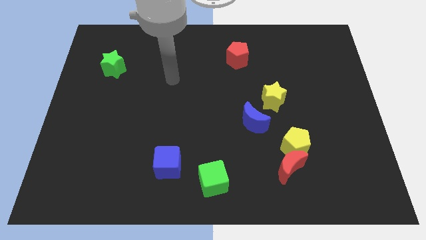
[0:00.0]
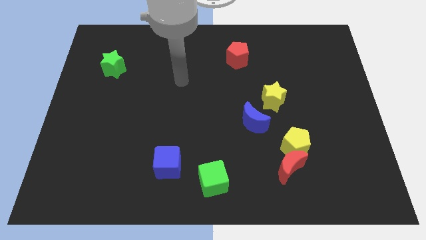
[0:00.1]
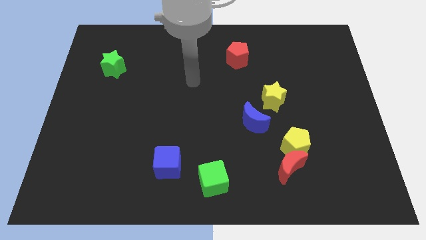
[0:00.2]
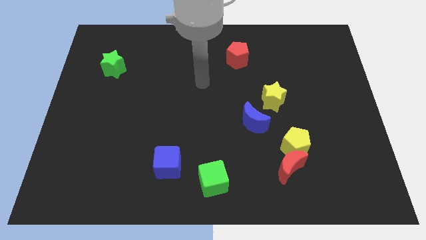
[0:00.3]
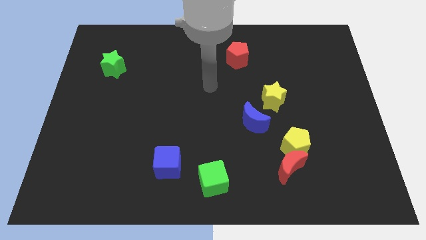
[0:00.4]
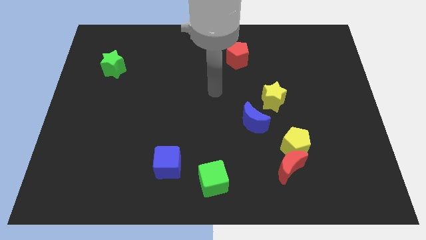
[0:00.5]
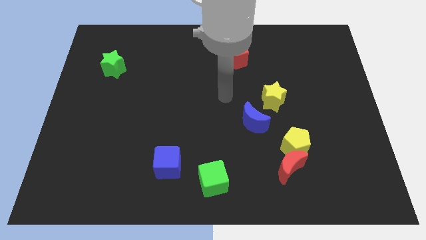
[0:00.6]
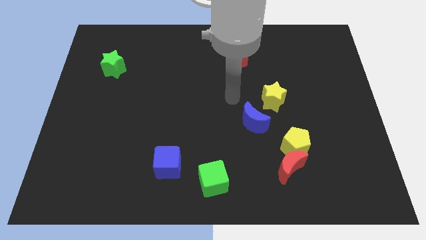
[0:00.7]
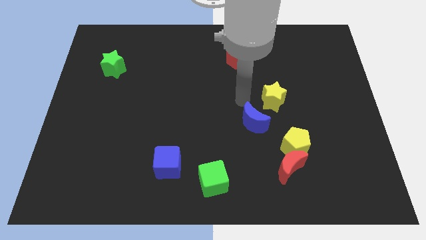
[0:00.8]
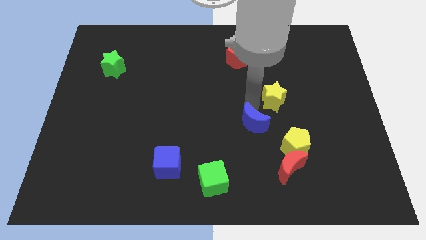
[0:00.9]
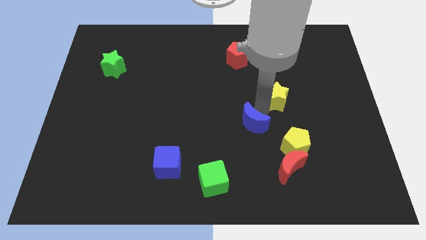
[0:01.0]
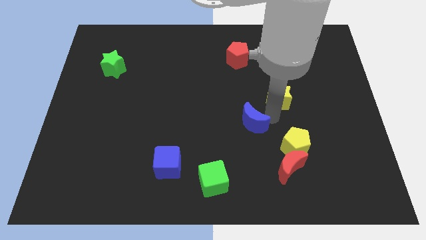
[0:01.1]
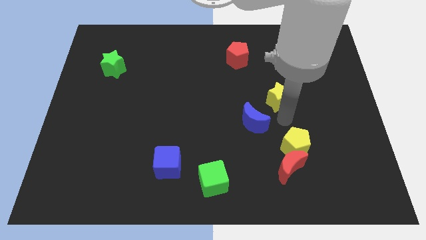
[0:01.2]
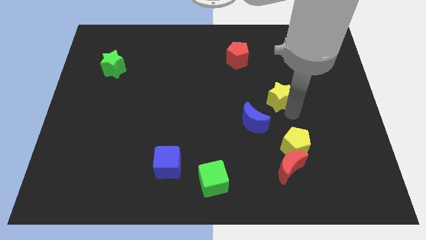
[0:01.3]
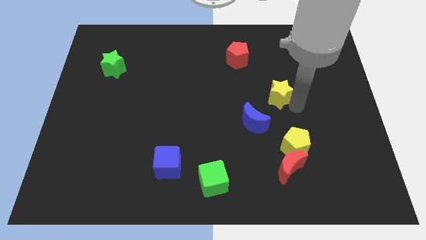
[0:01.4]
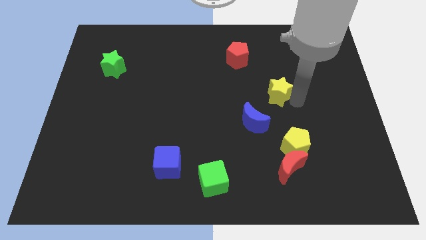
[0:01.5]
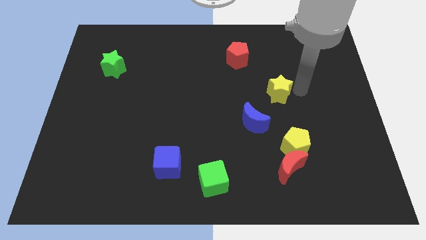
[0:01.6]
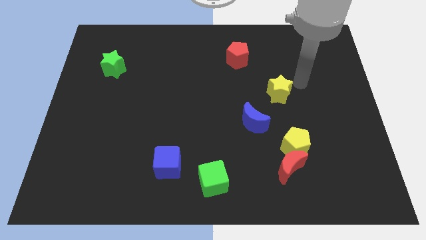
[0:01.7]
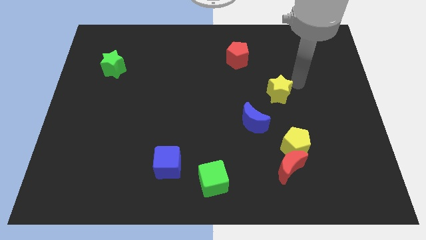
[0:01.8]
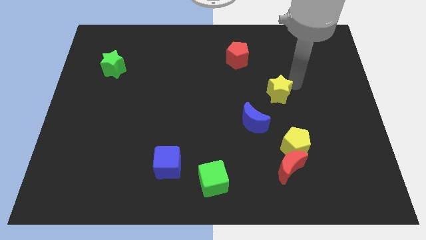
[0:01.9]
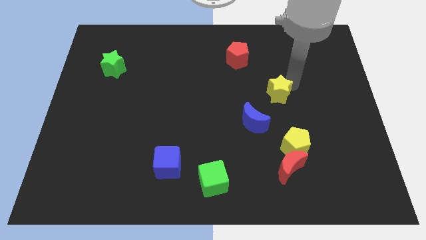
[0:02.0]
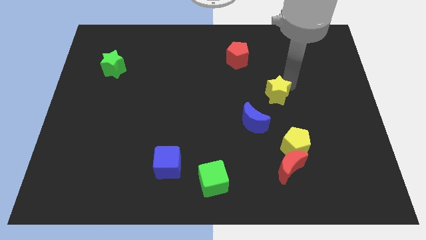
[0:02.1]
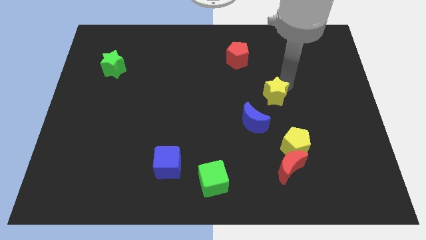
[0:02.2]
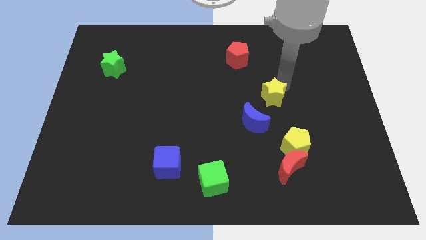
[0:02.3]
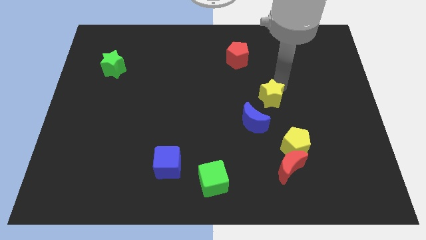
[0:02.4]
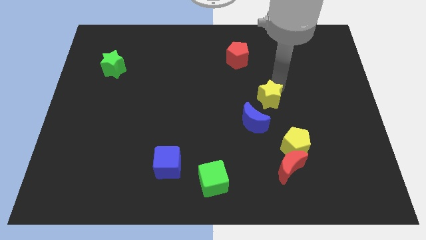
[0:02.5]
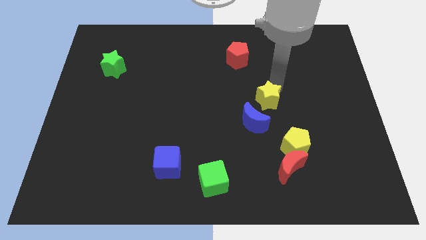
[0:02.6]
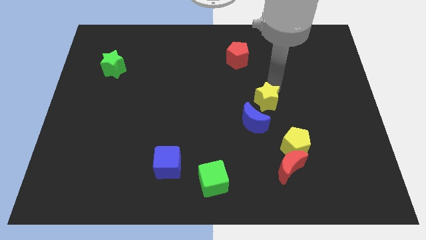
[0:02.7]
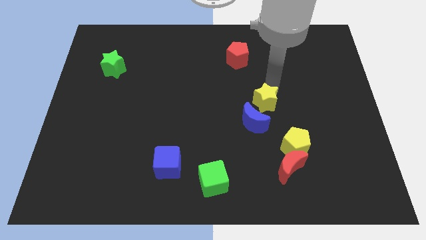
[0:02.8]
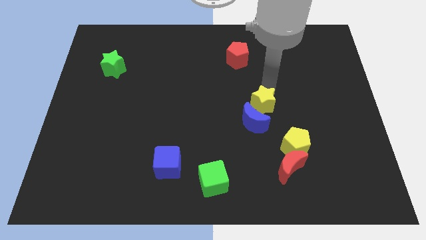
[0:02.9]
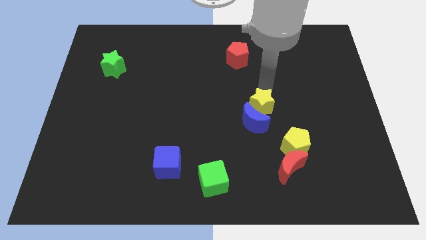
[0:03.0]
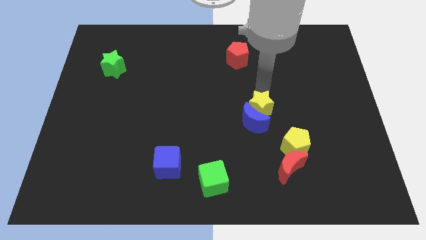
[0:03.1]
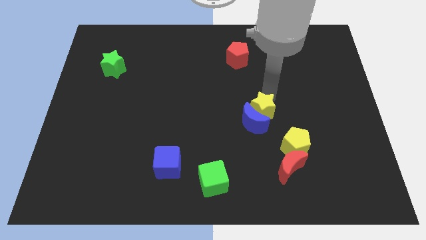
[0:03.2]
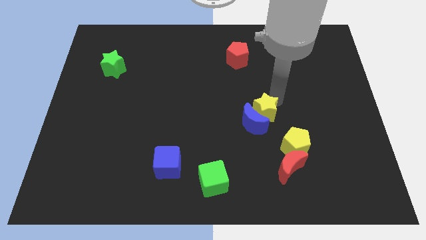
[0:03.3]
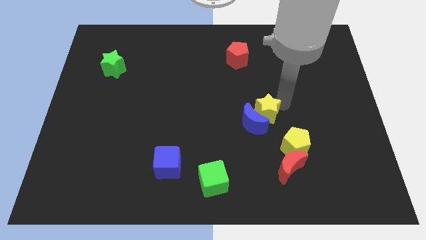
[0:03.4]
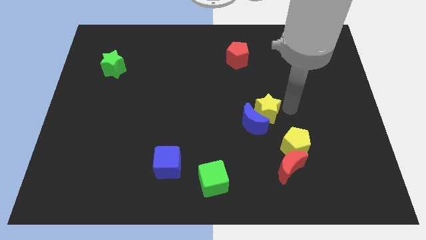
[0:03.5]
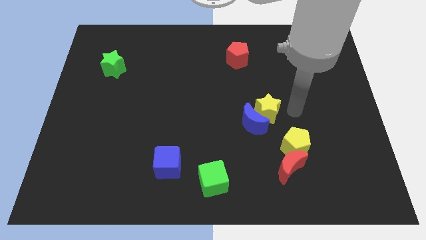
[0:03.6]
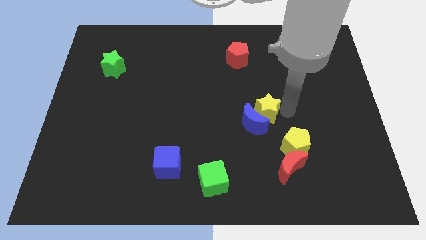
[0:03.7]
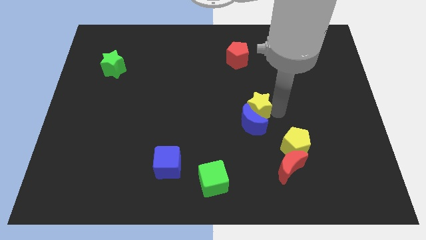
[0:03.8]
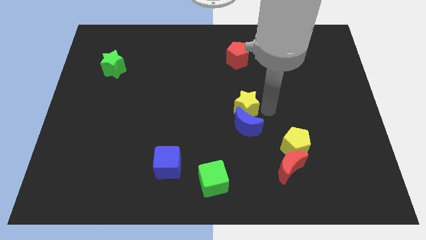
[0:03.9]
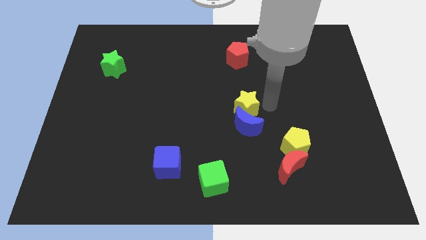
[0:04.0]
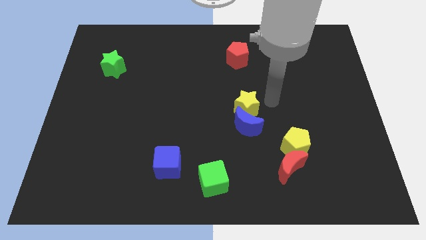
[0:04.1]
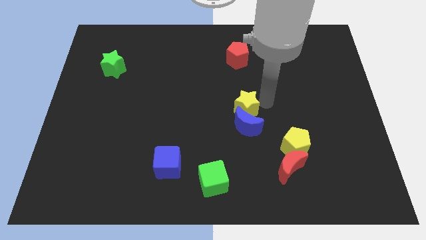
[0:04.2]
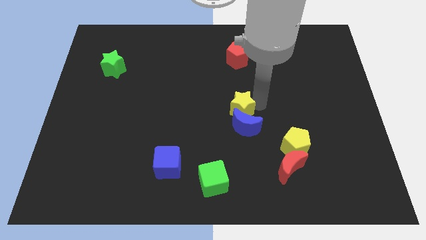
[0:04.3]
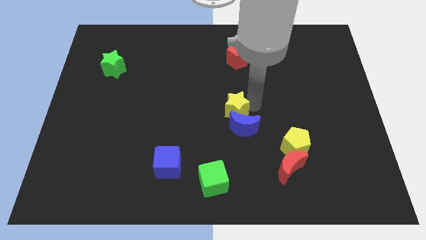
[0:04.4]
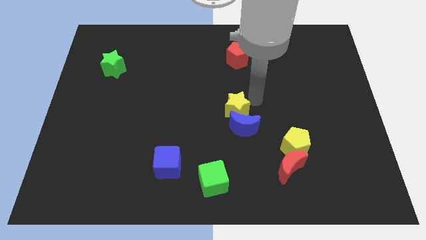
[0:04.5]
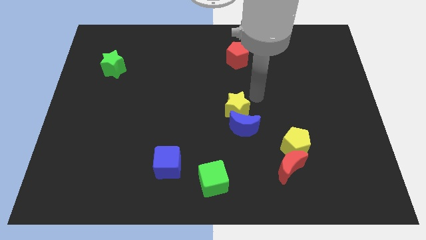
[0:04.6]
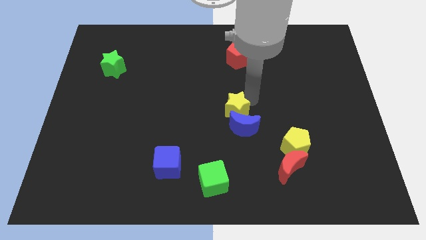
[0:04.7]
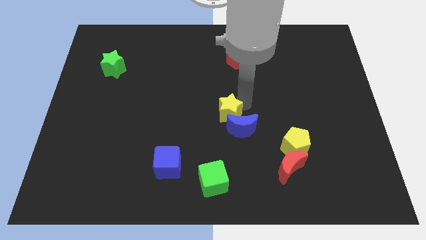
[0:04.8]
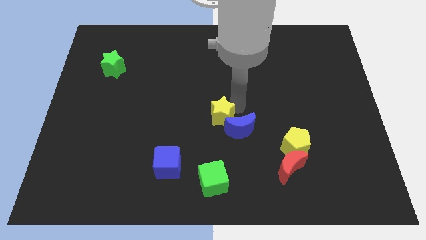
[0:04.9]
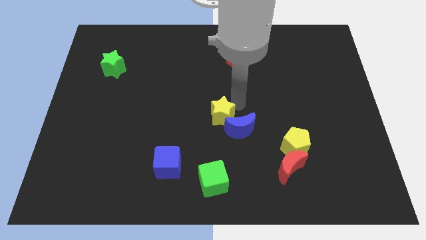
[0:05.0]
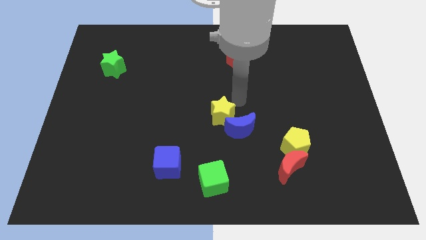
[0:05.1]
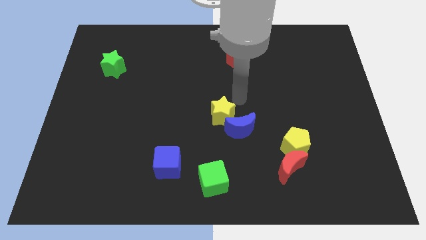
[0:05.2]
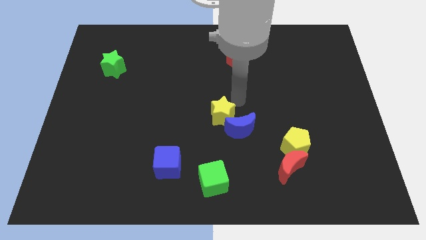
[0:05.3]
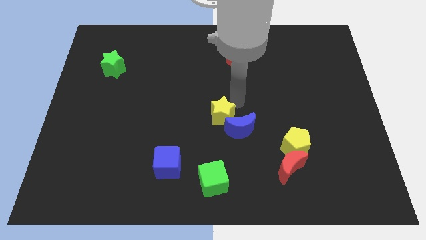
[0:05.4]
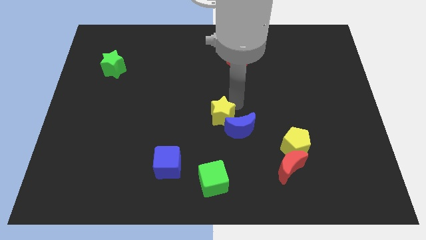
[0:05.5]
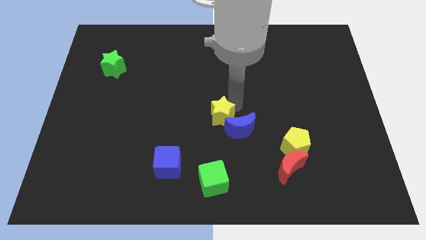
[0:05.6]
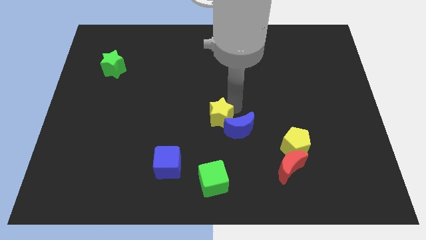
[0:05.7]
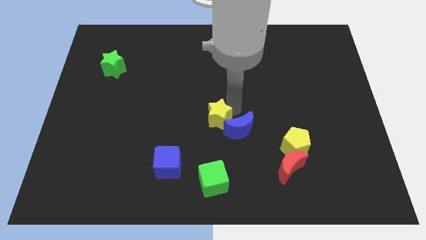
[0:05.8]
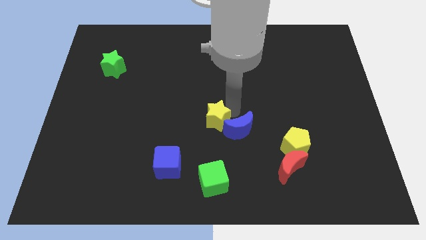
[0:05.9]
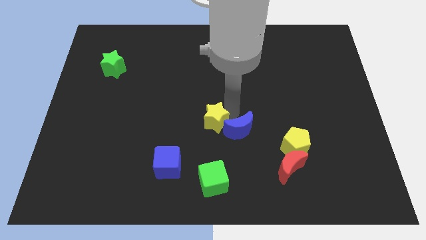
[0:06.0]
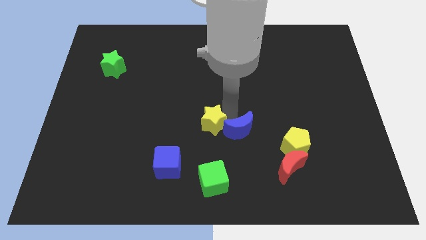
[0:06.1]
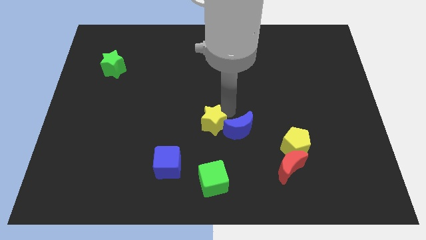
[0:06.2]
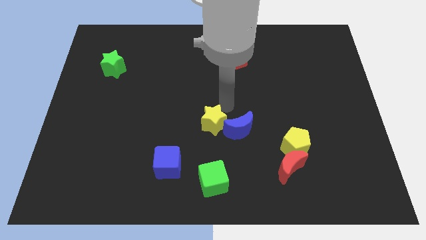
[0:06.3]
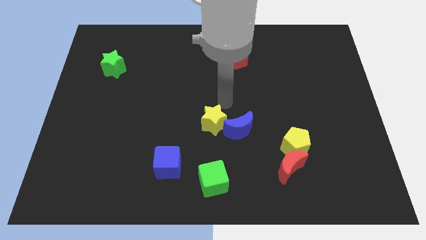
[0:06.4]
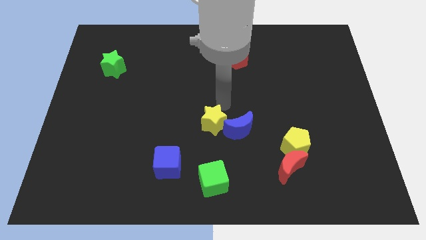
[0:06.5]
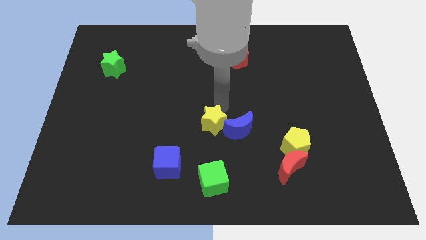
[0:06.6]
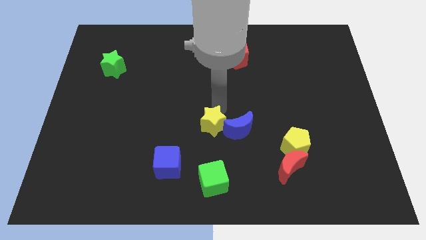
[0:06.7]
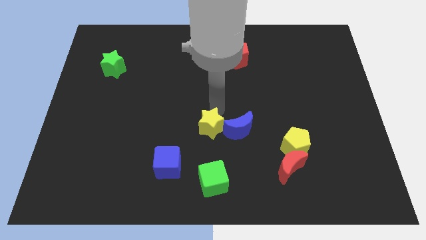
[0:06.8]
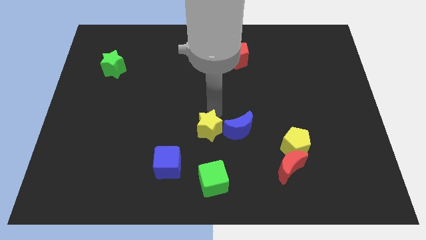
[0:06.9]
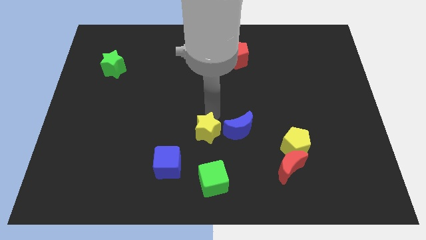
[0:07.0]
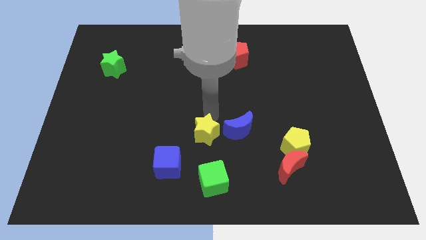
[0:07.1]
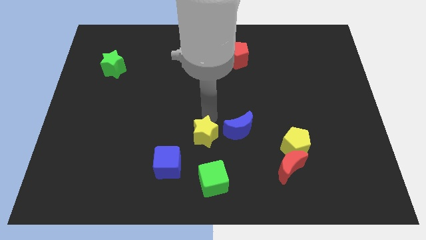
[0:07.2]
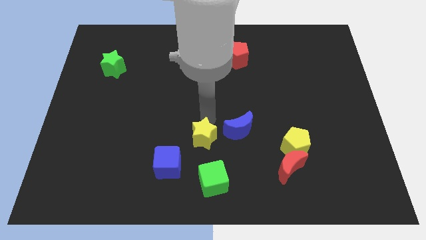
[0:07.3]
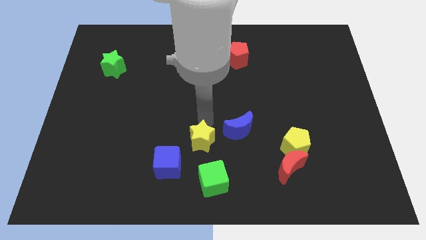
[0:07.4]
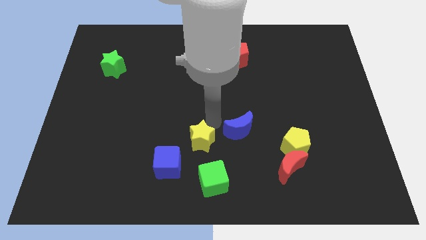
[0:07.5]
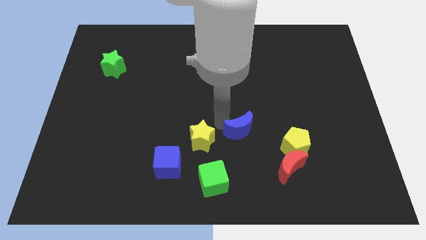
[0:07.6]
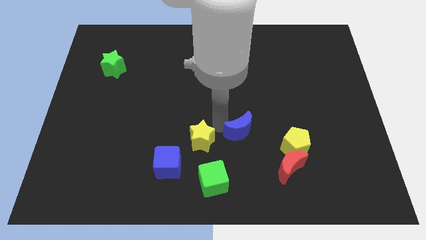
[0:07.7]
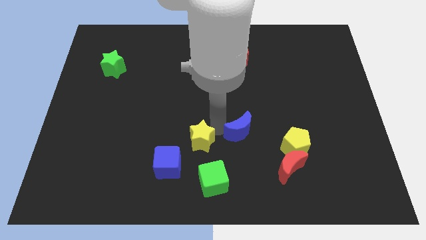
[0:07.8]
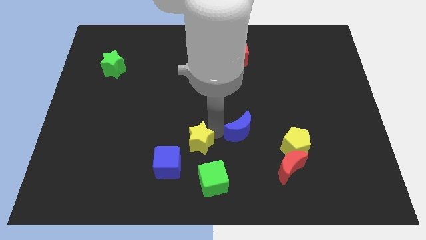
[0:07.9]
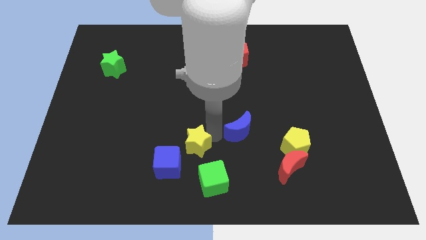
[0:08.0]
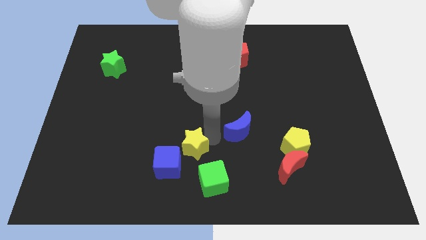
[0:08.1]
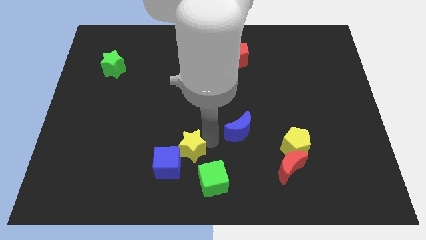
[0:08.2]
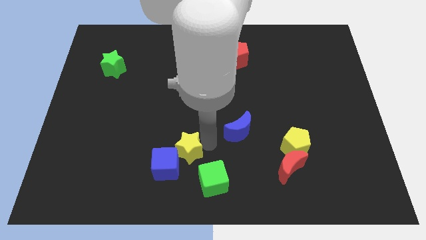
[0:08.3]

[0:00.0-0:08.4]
move the yellow star close to the blue cube
